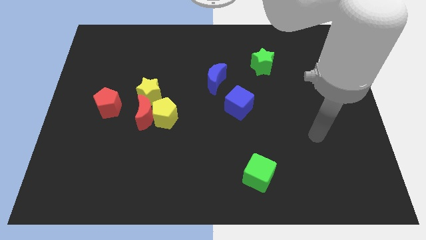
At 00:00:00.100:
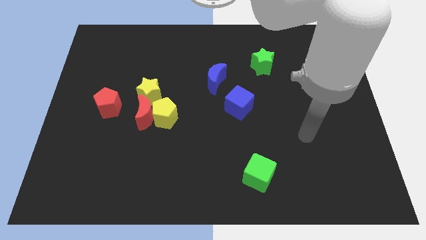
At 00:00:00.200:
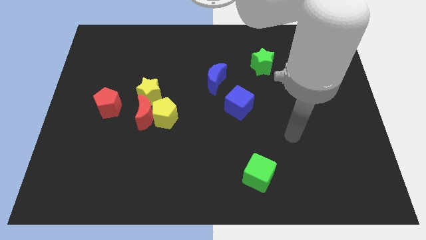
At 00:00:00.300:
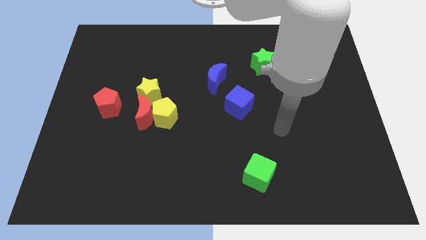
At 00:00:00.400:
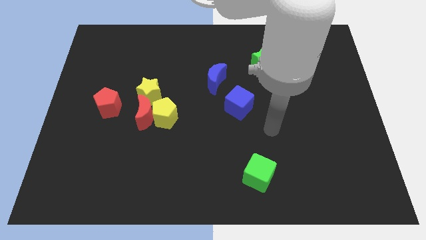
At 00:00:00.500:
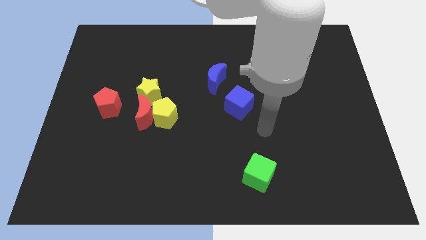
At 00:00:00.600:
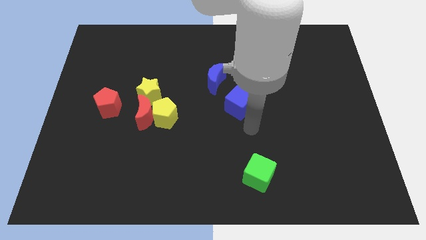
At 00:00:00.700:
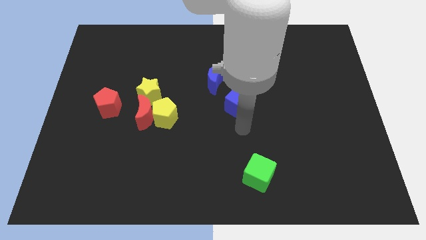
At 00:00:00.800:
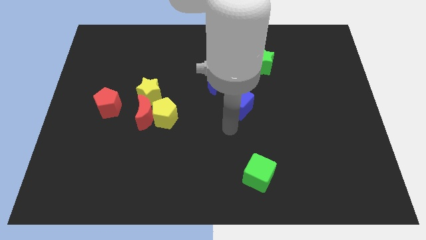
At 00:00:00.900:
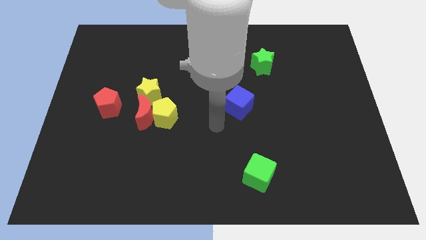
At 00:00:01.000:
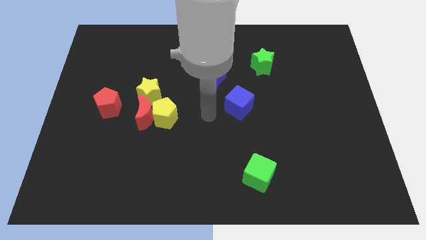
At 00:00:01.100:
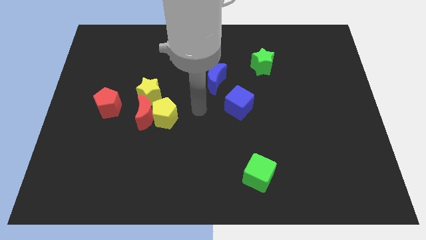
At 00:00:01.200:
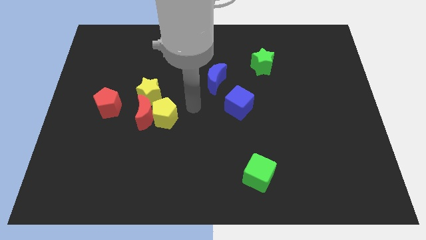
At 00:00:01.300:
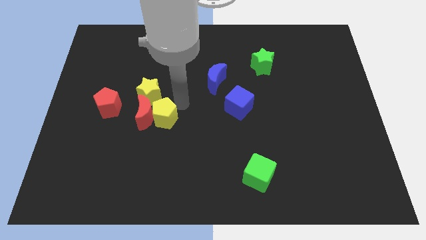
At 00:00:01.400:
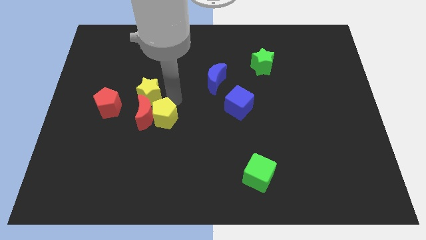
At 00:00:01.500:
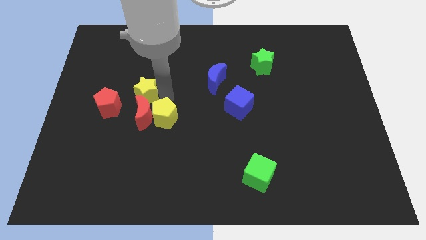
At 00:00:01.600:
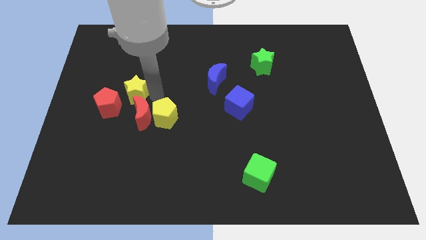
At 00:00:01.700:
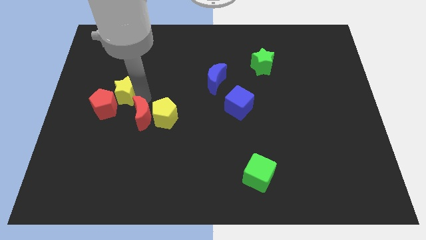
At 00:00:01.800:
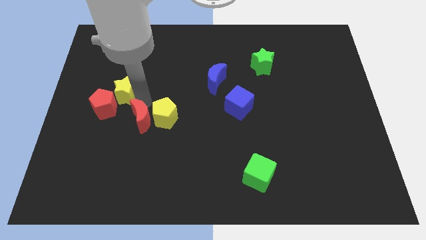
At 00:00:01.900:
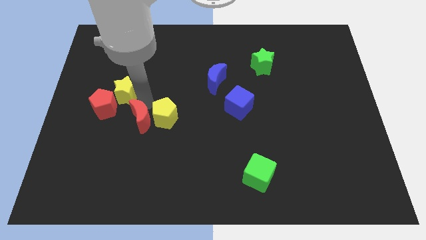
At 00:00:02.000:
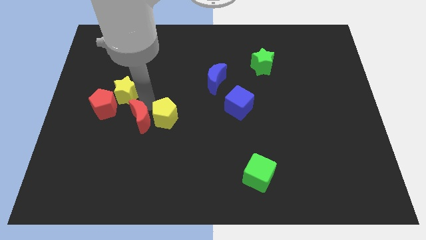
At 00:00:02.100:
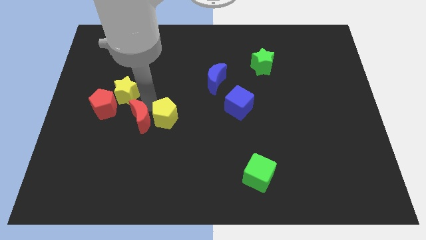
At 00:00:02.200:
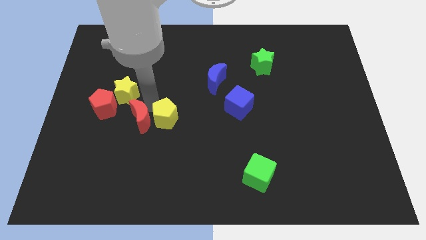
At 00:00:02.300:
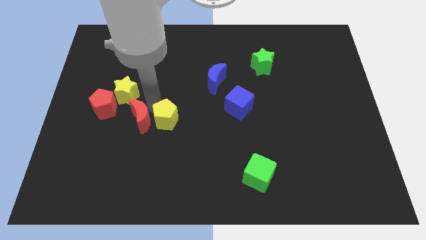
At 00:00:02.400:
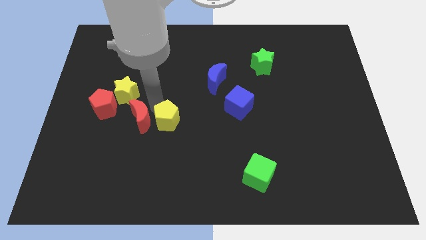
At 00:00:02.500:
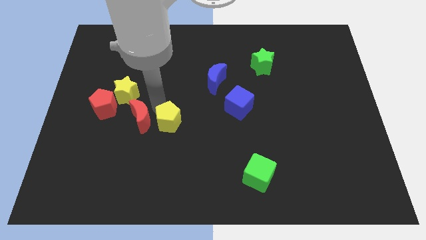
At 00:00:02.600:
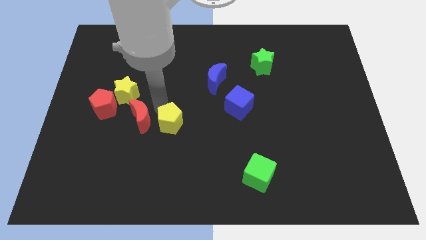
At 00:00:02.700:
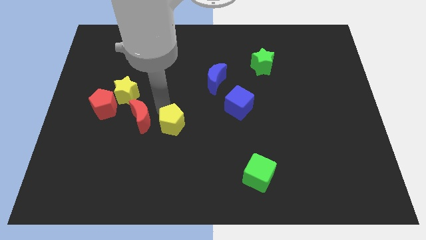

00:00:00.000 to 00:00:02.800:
separate the yellow pentagon from the red moon and yellow star

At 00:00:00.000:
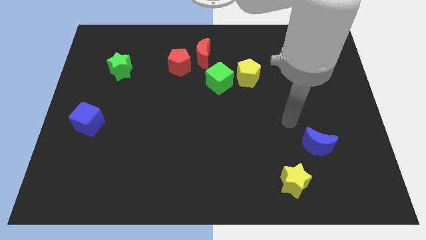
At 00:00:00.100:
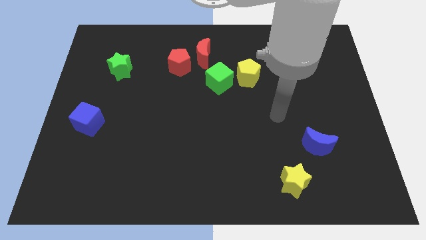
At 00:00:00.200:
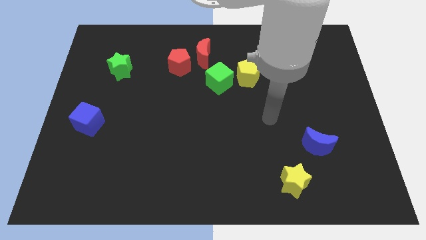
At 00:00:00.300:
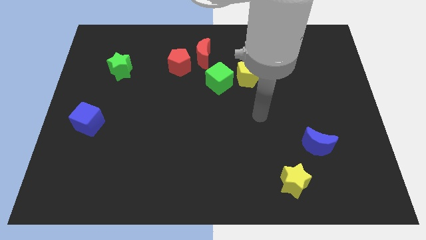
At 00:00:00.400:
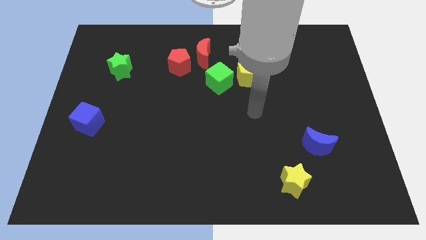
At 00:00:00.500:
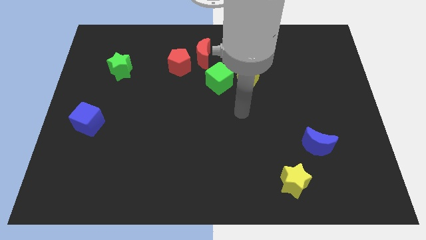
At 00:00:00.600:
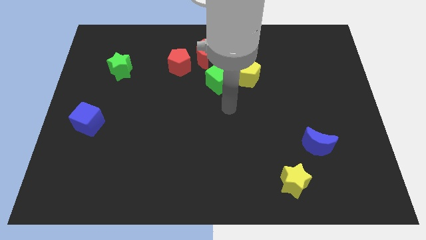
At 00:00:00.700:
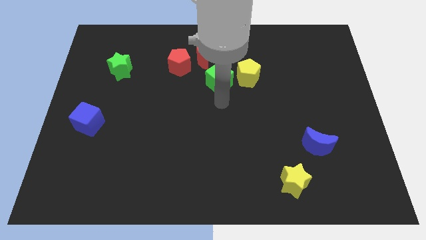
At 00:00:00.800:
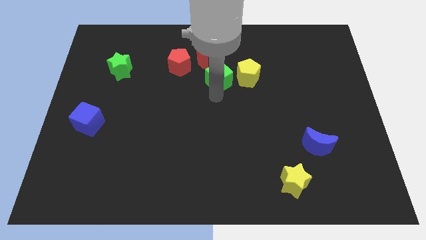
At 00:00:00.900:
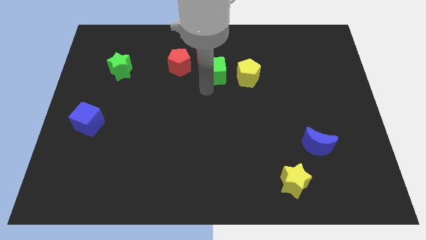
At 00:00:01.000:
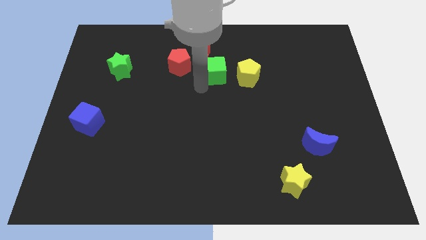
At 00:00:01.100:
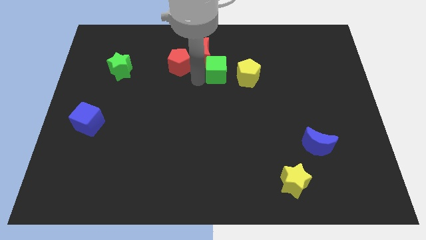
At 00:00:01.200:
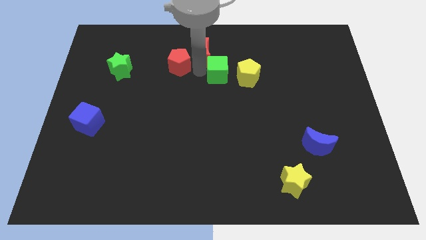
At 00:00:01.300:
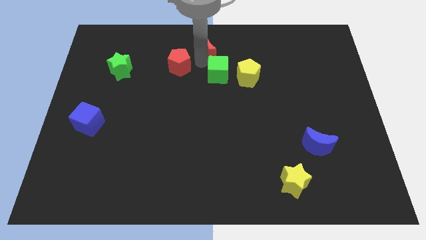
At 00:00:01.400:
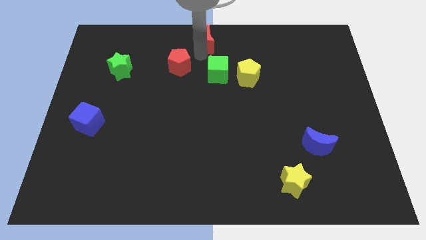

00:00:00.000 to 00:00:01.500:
move the red pentagon away from the red moon

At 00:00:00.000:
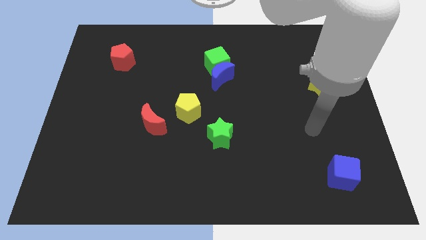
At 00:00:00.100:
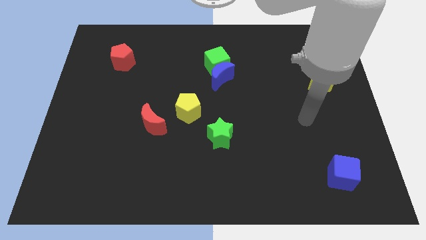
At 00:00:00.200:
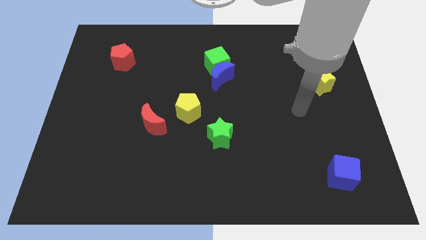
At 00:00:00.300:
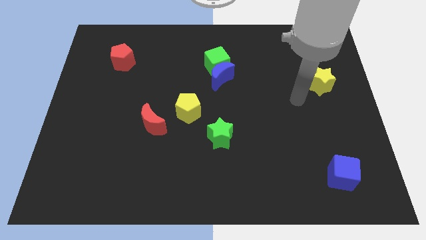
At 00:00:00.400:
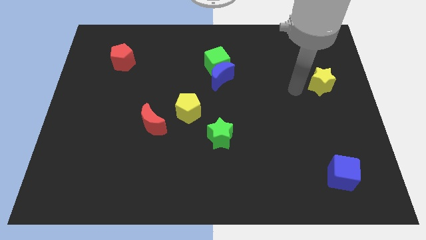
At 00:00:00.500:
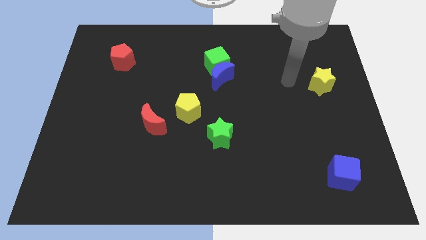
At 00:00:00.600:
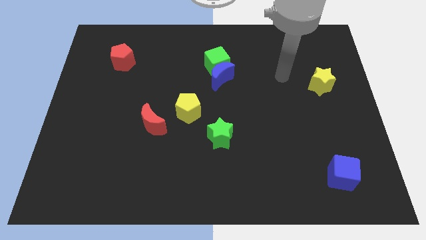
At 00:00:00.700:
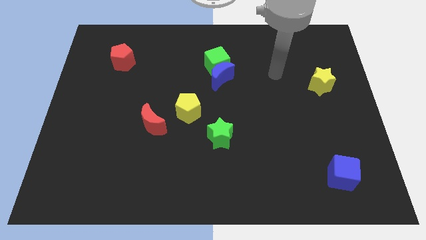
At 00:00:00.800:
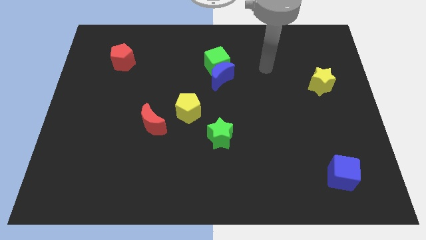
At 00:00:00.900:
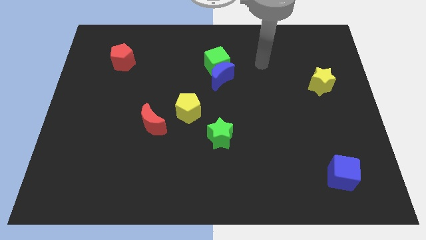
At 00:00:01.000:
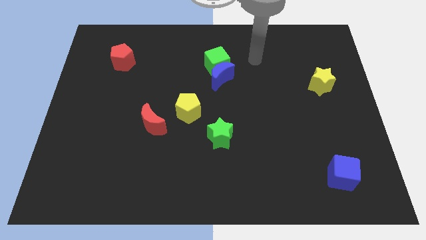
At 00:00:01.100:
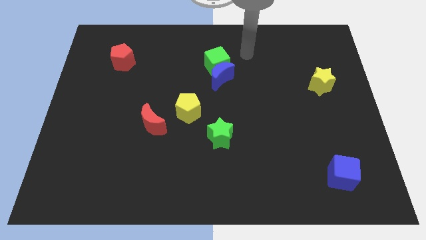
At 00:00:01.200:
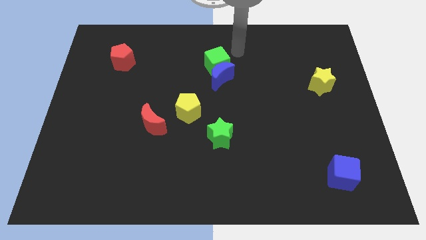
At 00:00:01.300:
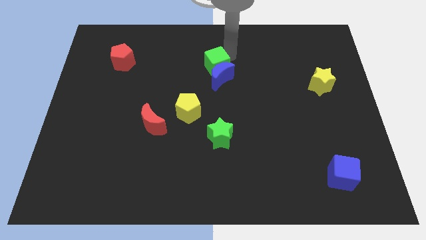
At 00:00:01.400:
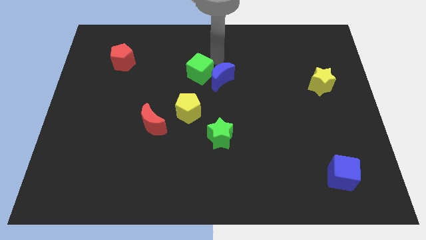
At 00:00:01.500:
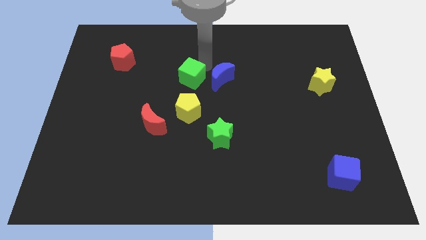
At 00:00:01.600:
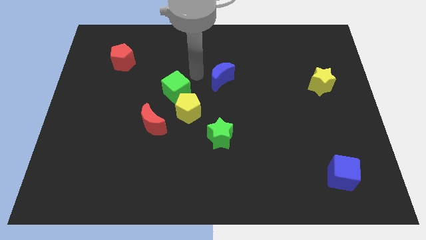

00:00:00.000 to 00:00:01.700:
separate the blue moon from the green cube

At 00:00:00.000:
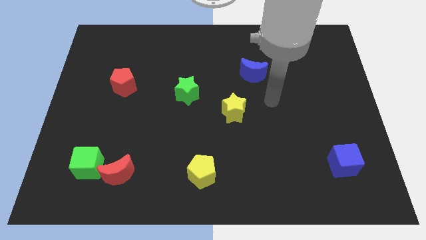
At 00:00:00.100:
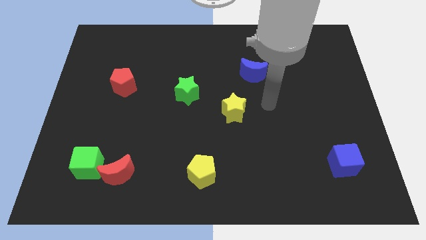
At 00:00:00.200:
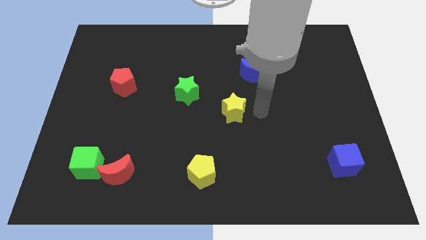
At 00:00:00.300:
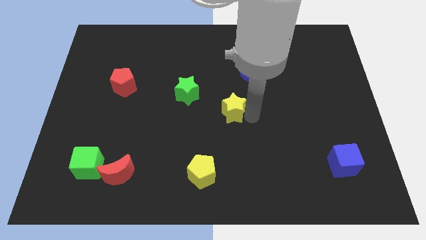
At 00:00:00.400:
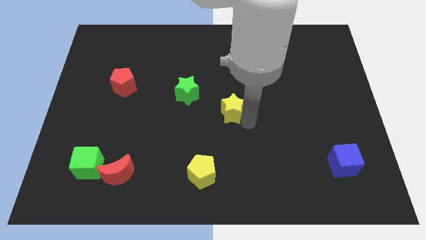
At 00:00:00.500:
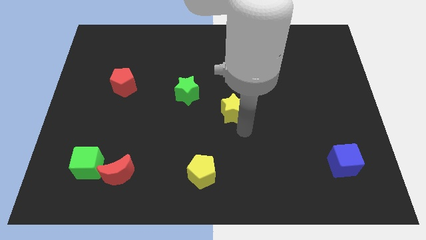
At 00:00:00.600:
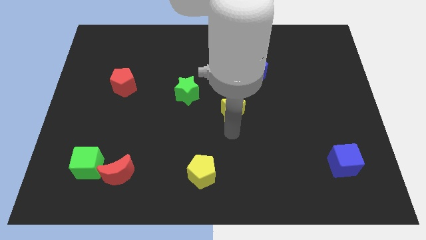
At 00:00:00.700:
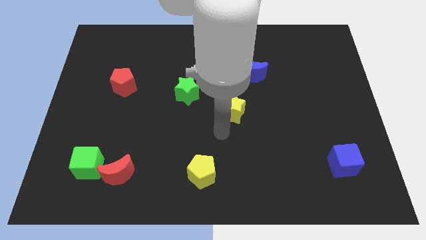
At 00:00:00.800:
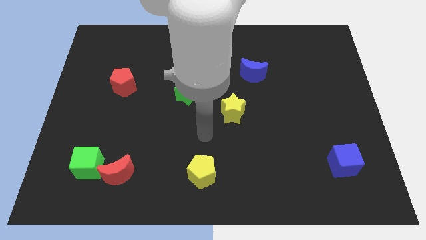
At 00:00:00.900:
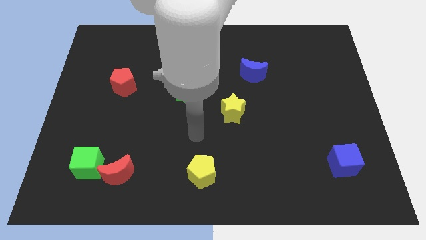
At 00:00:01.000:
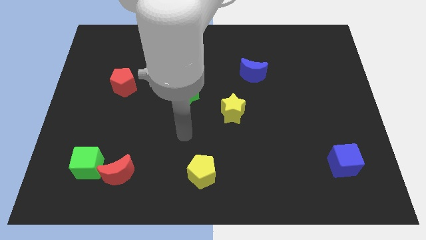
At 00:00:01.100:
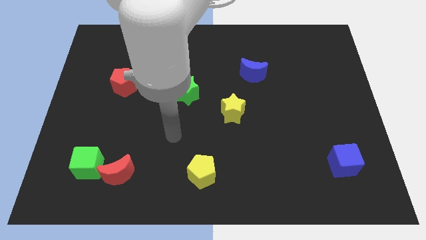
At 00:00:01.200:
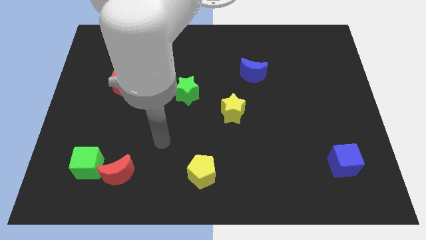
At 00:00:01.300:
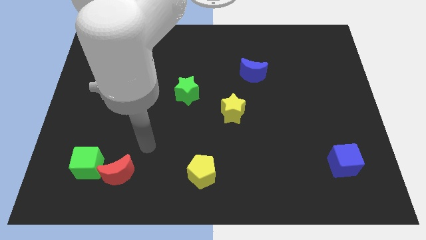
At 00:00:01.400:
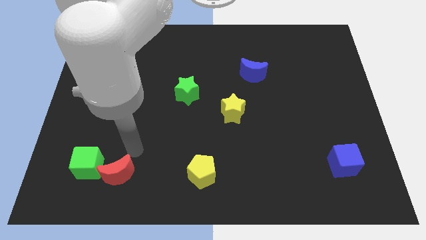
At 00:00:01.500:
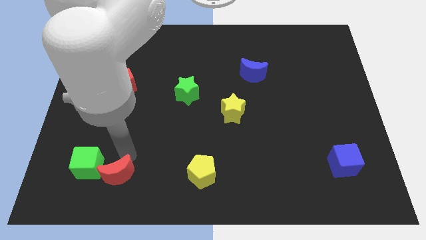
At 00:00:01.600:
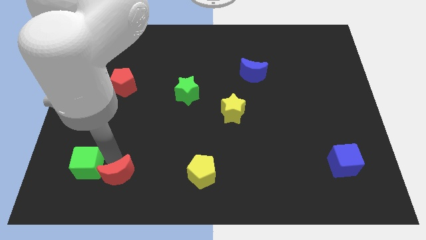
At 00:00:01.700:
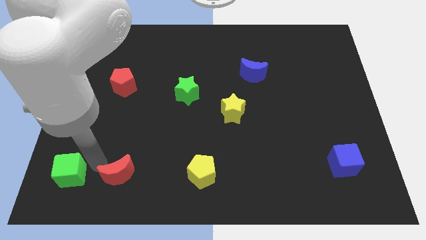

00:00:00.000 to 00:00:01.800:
pull the red moon apart from the green cube

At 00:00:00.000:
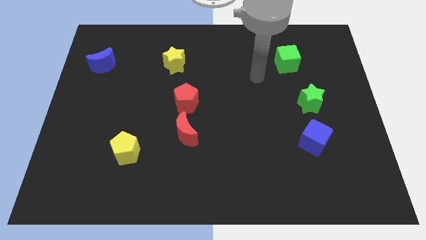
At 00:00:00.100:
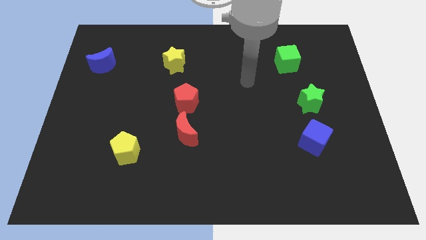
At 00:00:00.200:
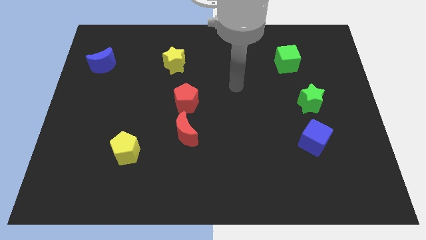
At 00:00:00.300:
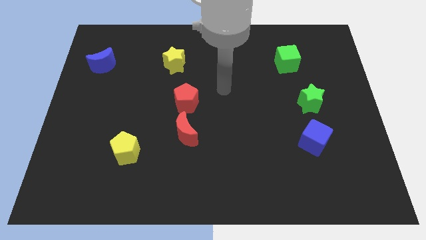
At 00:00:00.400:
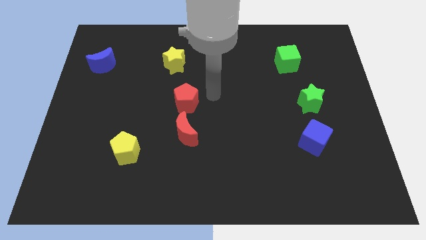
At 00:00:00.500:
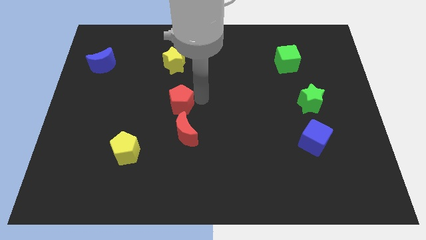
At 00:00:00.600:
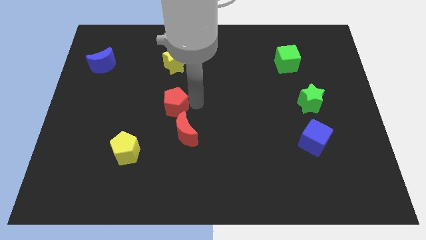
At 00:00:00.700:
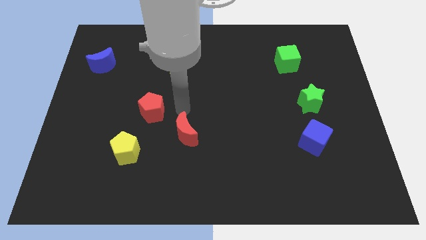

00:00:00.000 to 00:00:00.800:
move the red moon away from the red pentagon

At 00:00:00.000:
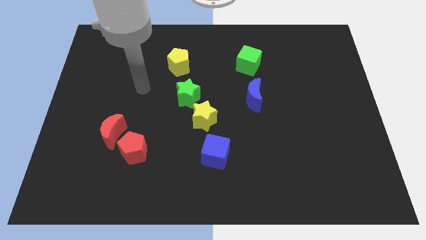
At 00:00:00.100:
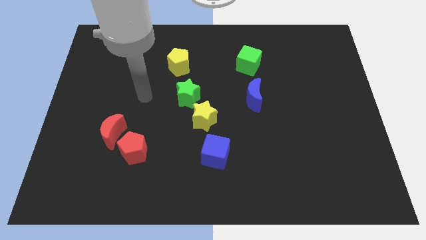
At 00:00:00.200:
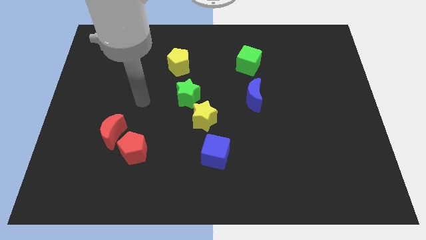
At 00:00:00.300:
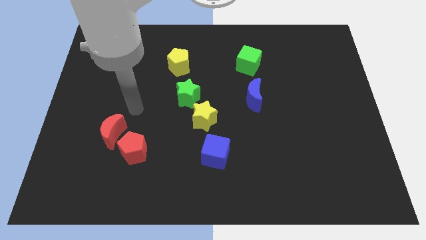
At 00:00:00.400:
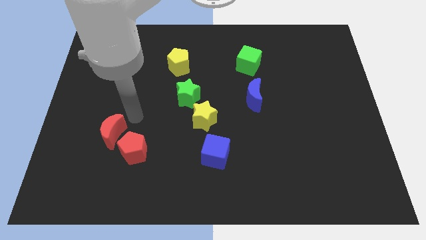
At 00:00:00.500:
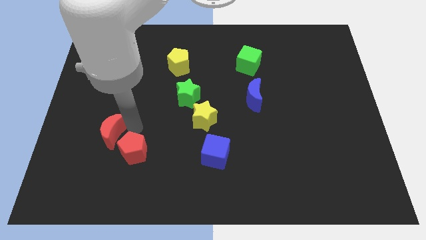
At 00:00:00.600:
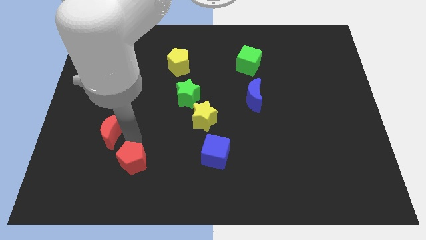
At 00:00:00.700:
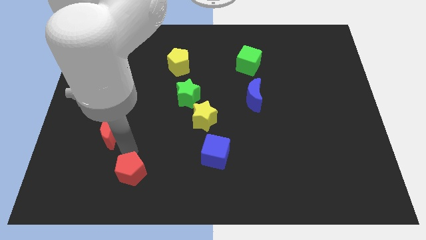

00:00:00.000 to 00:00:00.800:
pull the red moon apart from the red pentagon
